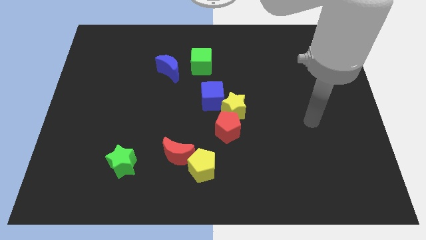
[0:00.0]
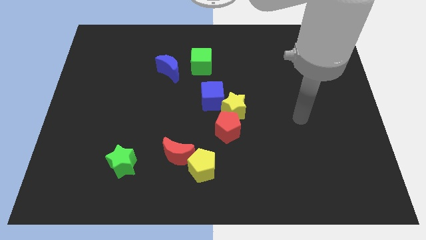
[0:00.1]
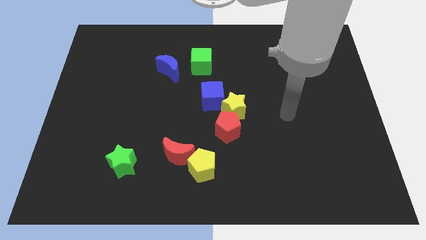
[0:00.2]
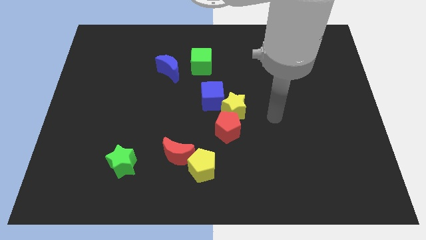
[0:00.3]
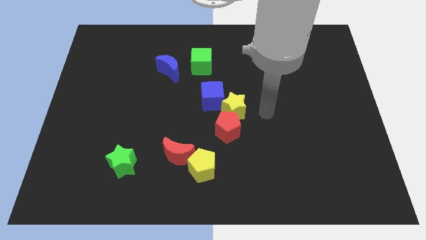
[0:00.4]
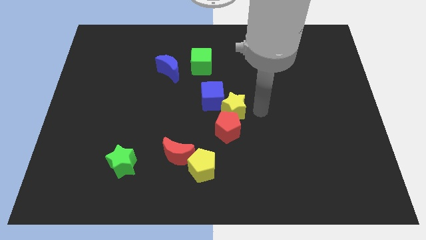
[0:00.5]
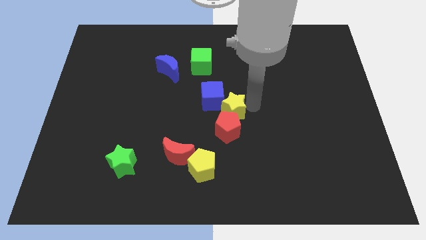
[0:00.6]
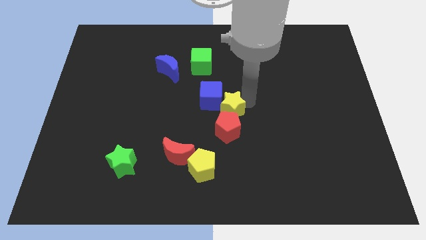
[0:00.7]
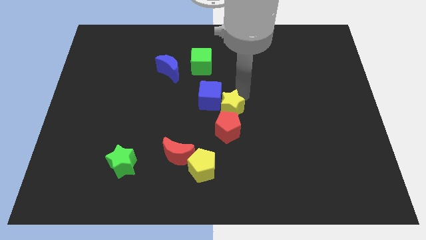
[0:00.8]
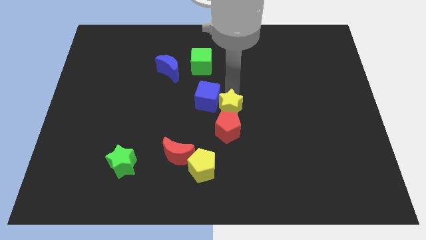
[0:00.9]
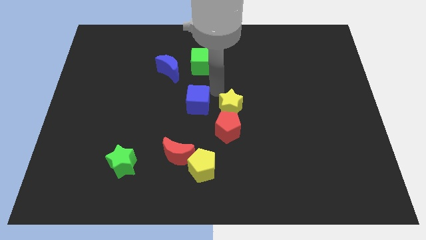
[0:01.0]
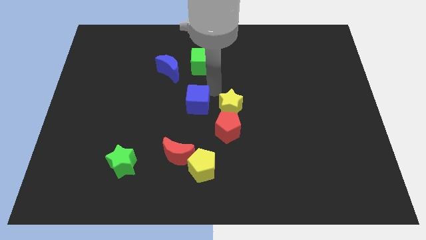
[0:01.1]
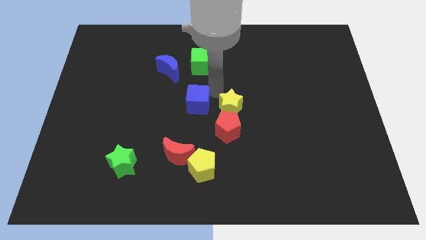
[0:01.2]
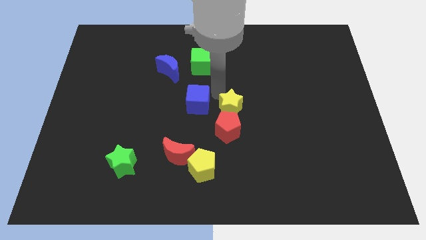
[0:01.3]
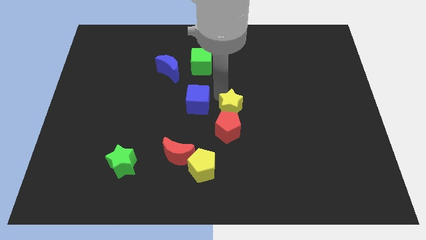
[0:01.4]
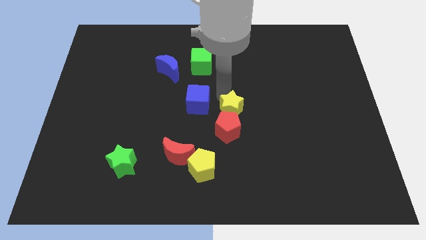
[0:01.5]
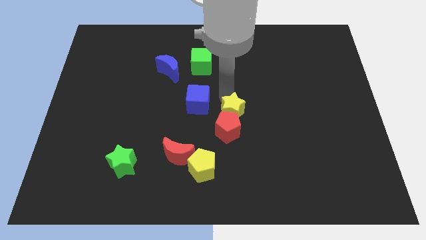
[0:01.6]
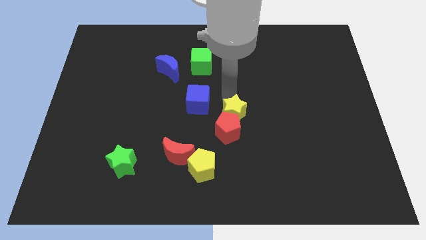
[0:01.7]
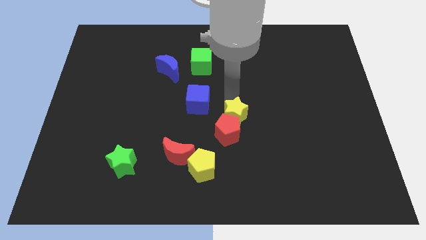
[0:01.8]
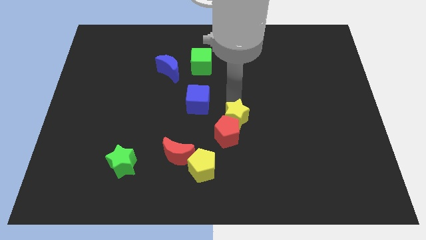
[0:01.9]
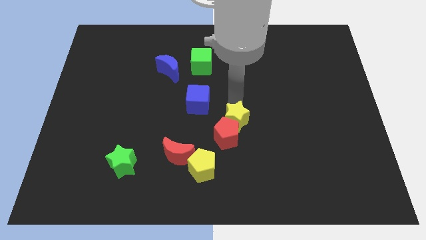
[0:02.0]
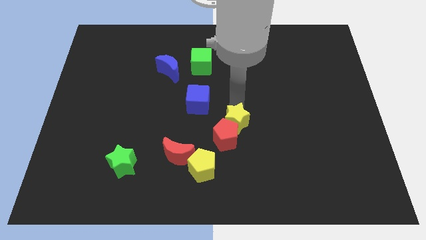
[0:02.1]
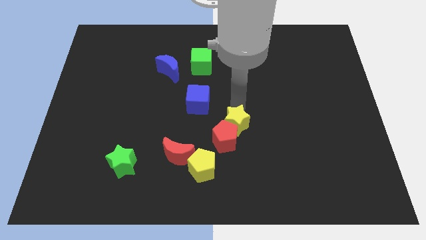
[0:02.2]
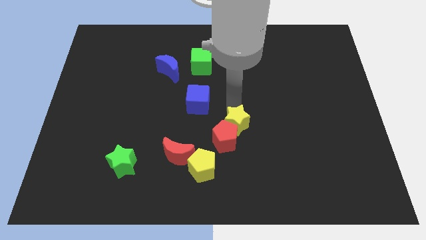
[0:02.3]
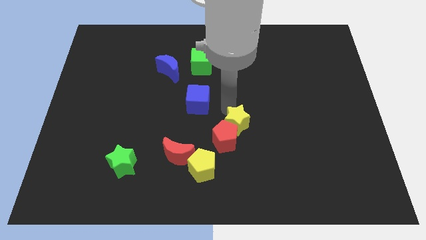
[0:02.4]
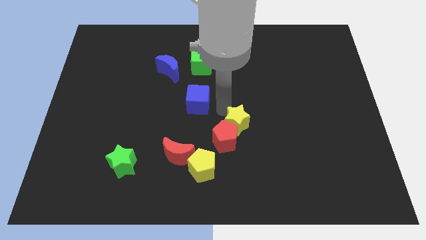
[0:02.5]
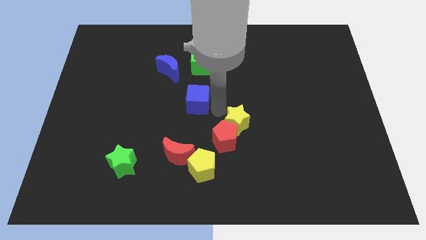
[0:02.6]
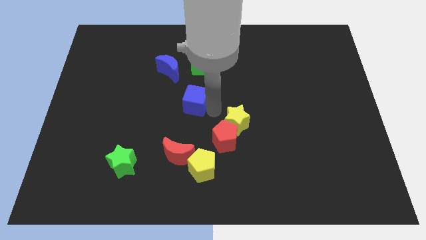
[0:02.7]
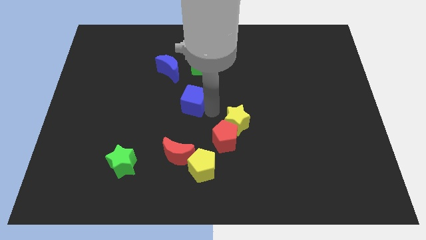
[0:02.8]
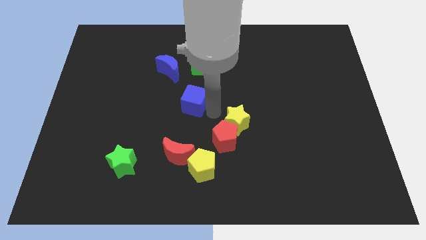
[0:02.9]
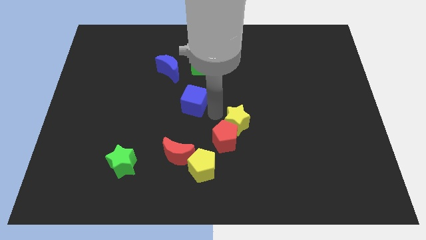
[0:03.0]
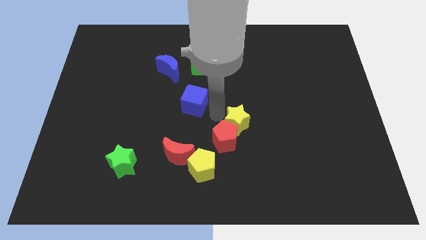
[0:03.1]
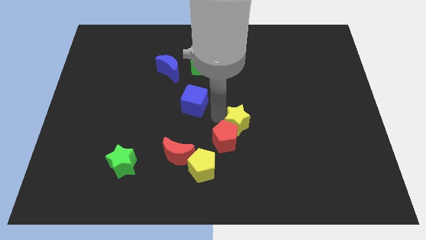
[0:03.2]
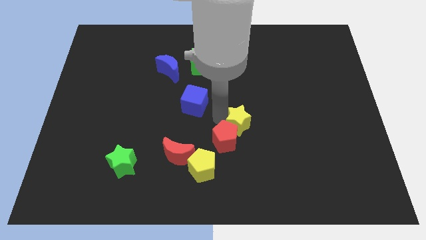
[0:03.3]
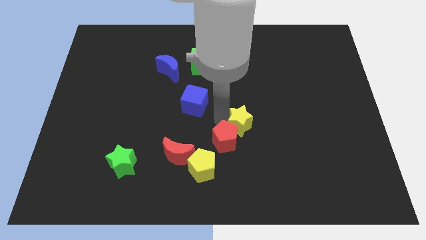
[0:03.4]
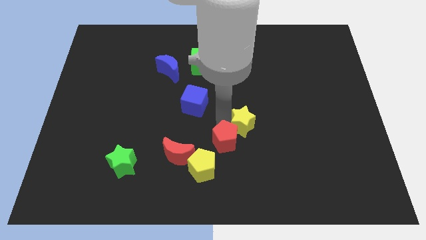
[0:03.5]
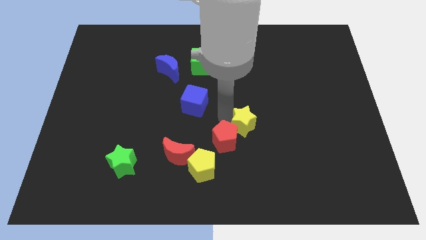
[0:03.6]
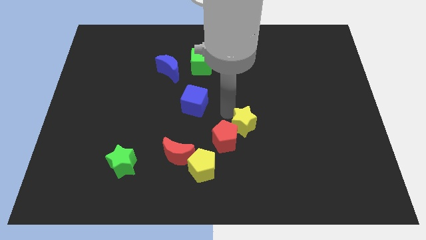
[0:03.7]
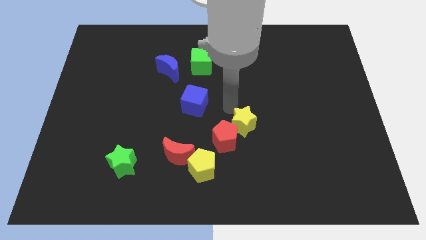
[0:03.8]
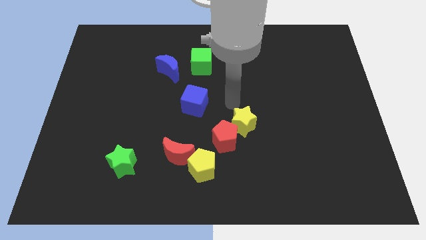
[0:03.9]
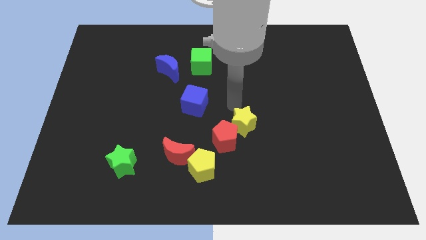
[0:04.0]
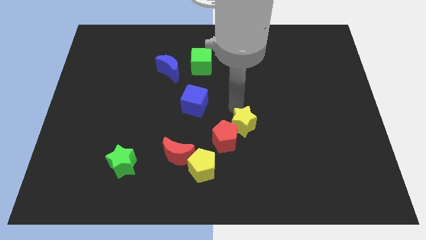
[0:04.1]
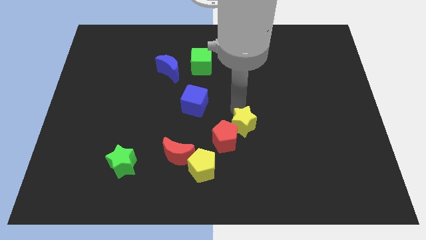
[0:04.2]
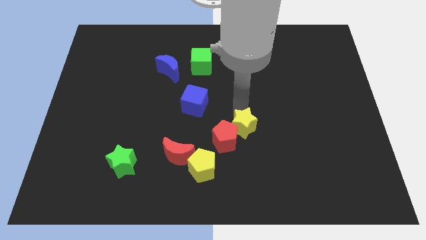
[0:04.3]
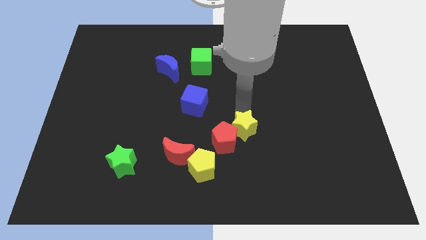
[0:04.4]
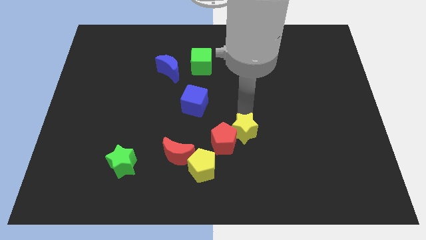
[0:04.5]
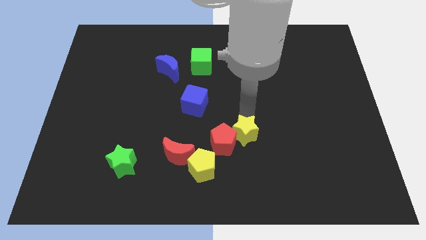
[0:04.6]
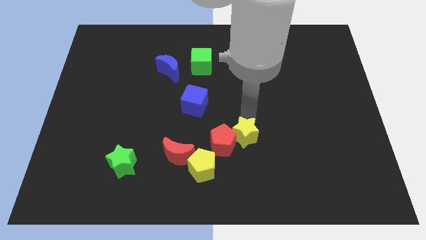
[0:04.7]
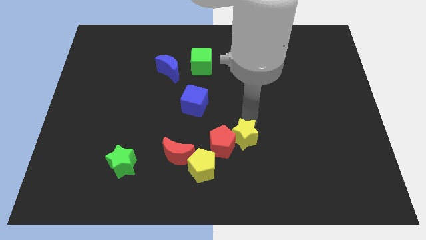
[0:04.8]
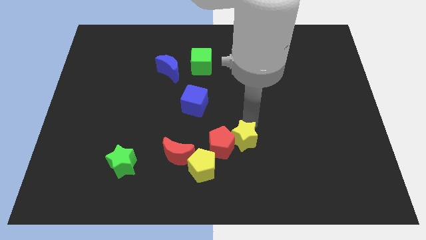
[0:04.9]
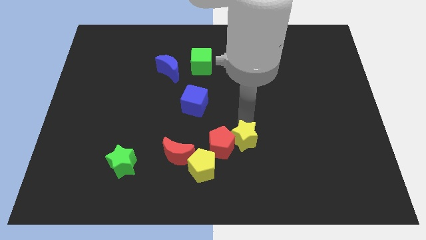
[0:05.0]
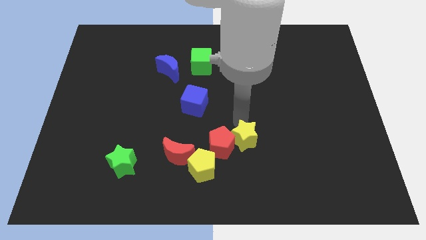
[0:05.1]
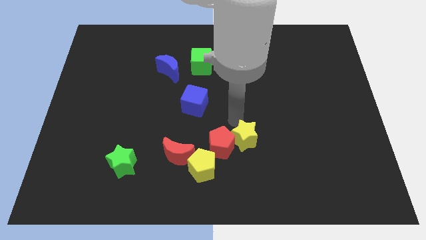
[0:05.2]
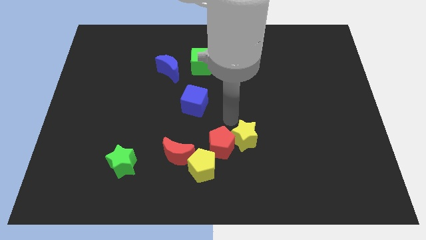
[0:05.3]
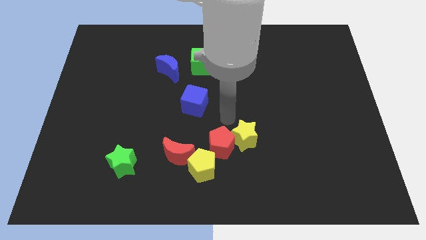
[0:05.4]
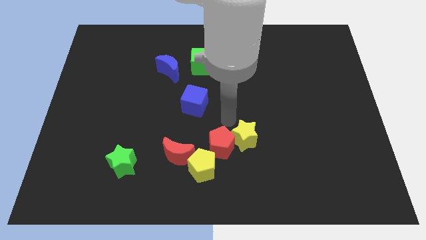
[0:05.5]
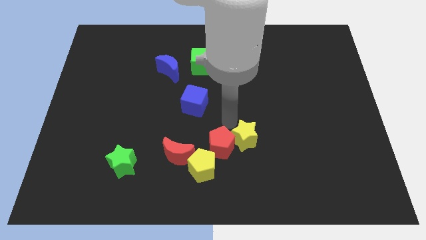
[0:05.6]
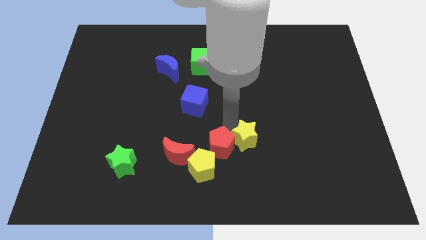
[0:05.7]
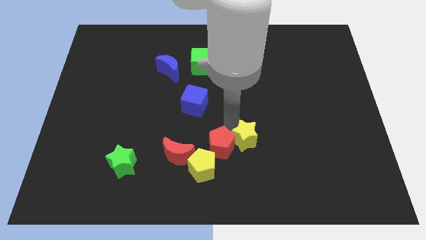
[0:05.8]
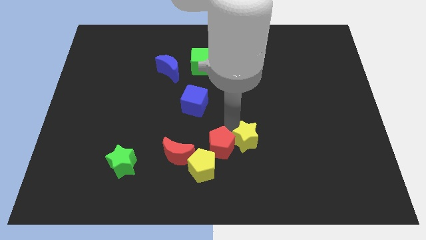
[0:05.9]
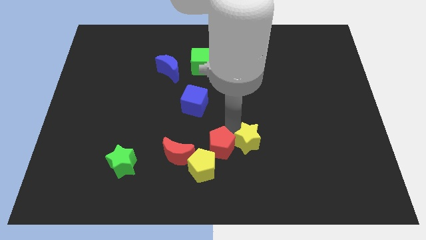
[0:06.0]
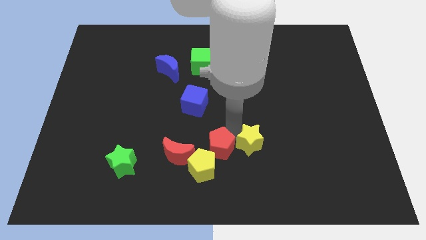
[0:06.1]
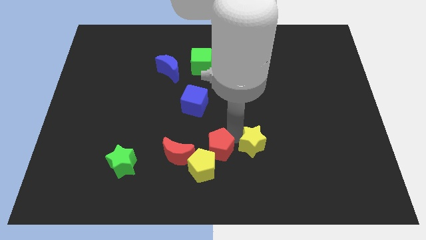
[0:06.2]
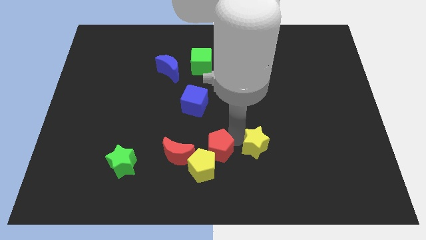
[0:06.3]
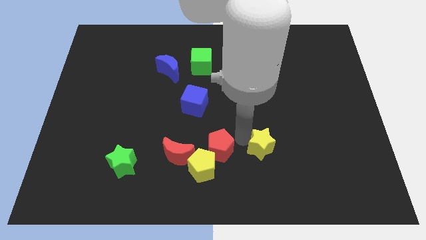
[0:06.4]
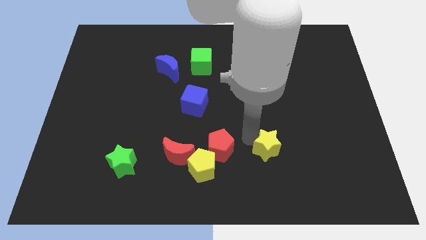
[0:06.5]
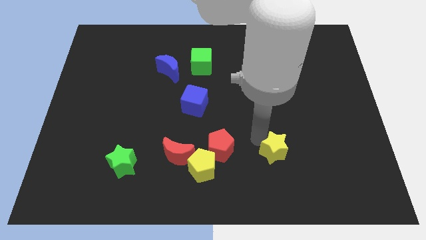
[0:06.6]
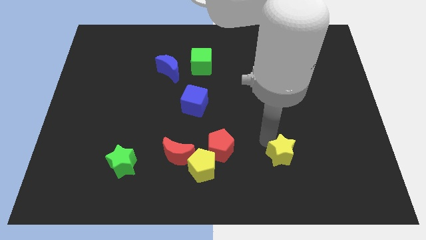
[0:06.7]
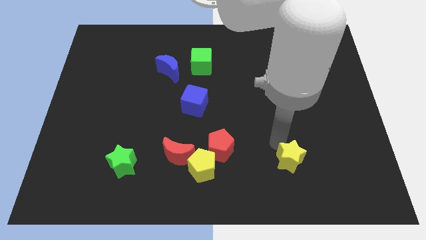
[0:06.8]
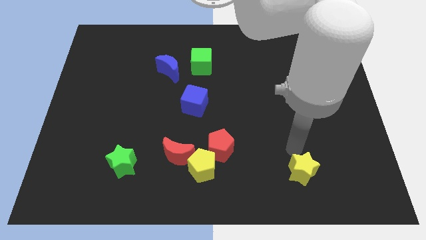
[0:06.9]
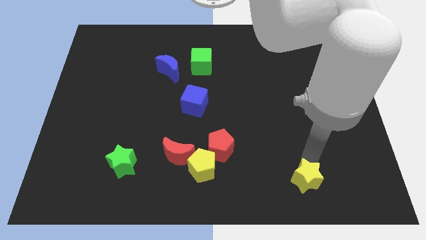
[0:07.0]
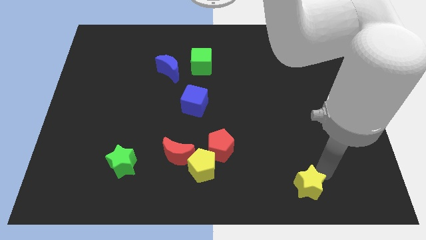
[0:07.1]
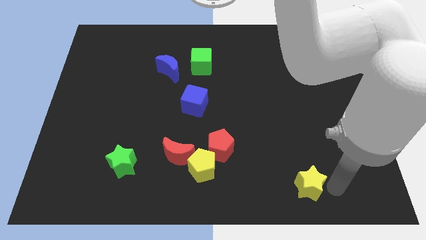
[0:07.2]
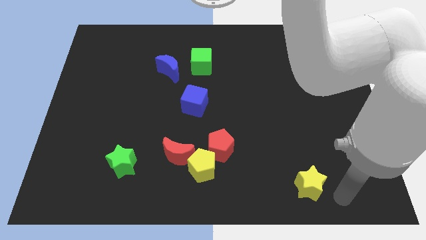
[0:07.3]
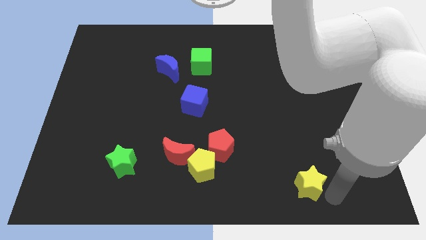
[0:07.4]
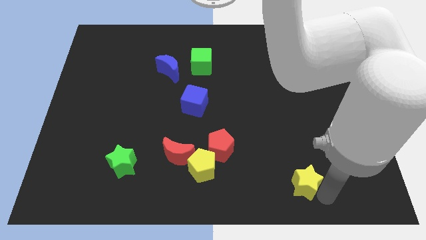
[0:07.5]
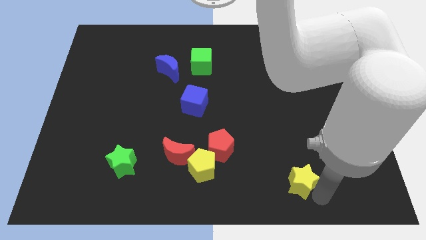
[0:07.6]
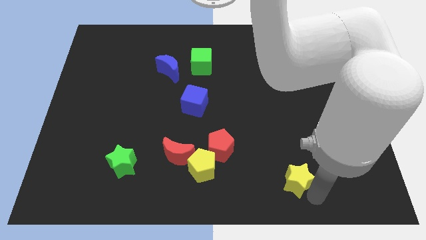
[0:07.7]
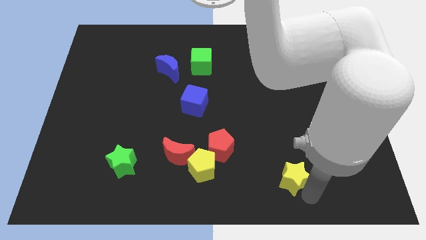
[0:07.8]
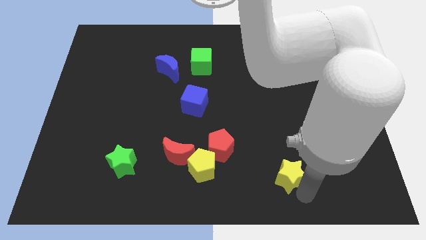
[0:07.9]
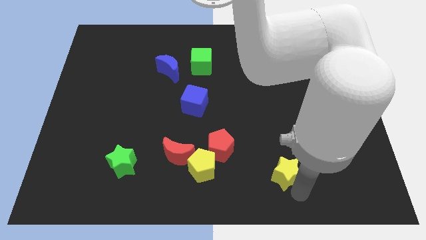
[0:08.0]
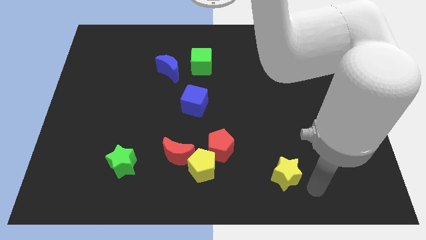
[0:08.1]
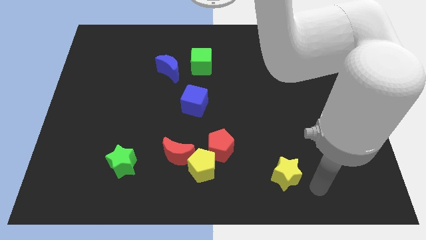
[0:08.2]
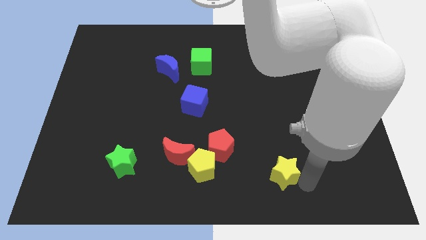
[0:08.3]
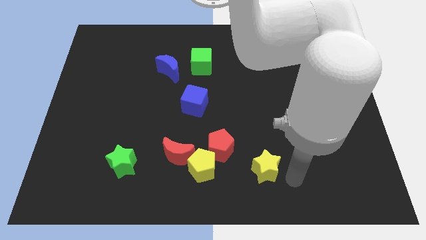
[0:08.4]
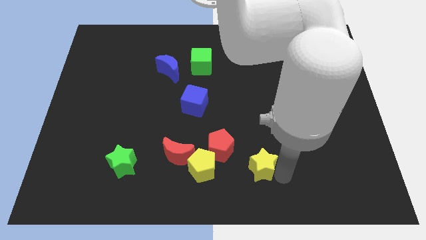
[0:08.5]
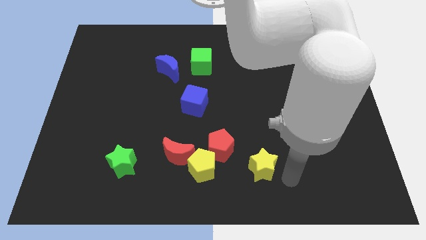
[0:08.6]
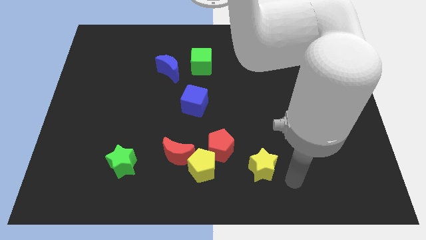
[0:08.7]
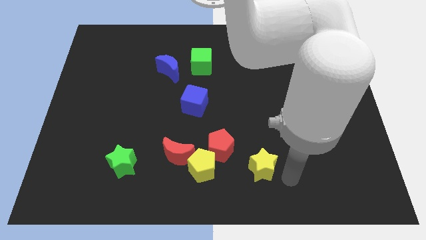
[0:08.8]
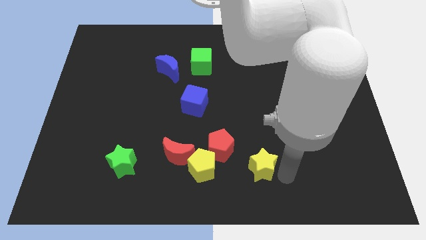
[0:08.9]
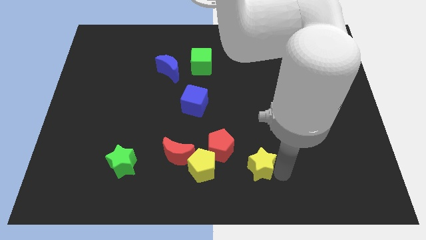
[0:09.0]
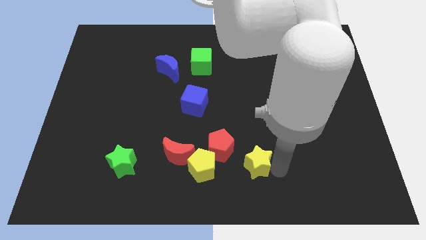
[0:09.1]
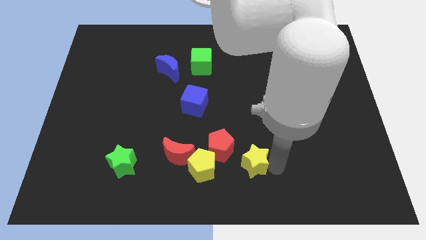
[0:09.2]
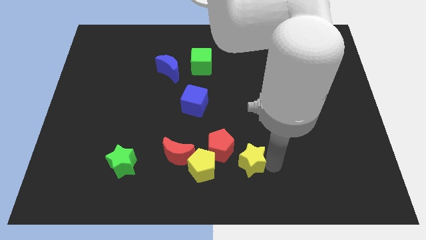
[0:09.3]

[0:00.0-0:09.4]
move the yellow star just right of the red moon
